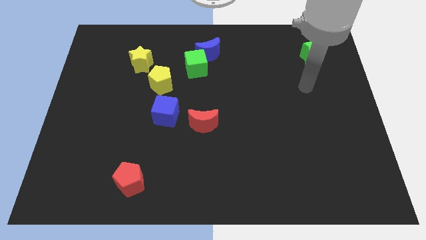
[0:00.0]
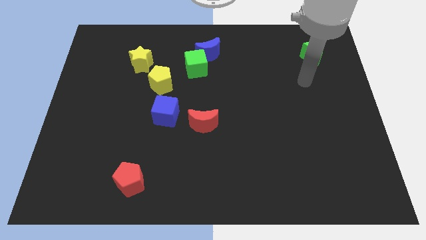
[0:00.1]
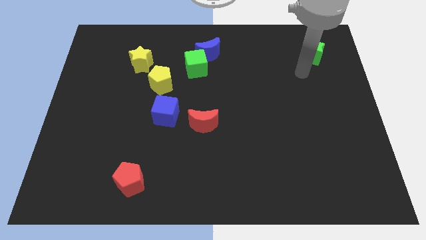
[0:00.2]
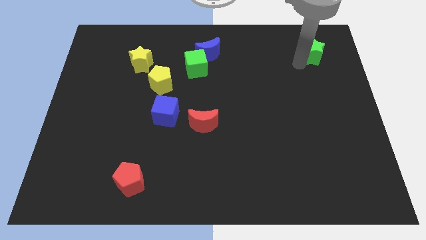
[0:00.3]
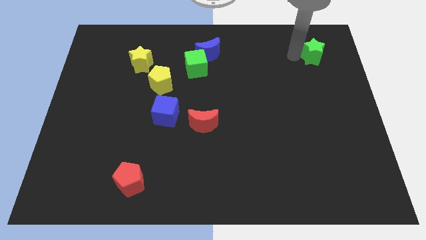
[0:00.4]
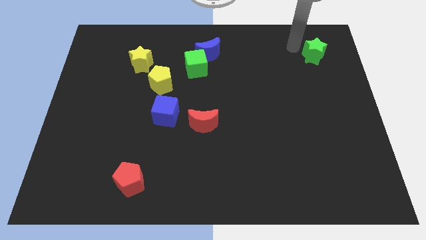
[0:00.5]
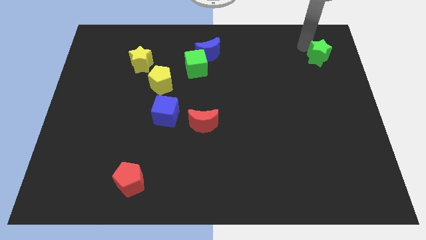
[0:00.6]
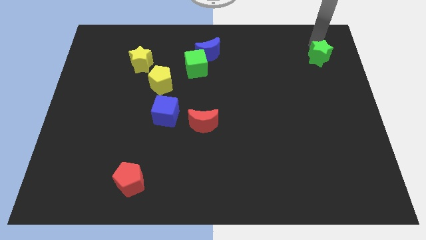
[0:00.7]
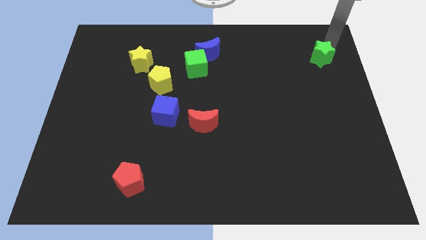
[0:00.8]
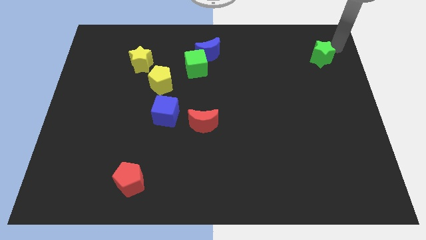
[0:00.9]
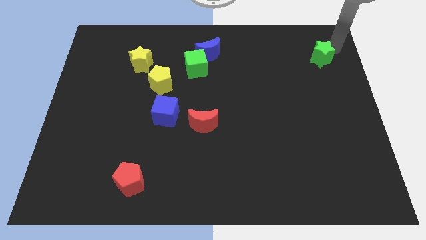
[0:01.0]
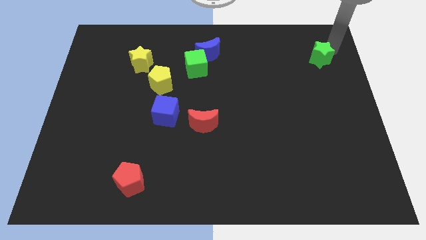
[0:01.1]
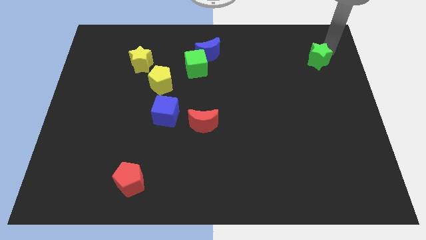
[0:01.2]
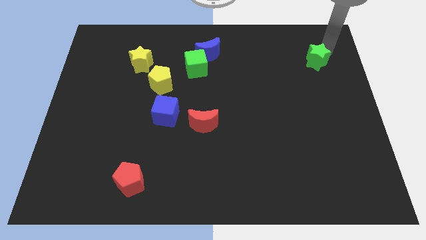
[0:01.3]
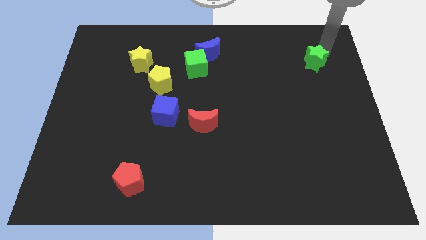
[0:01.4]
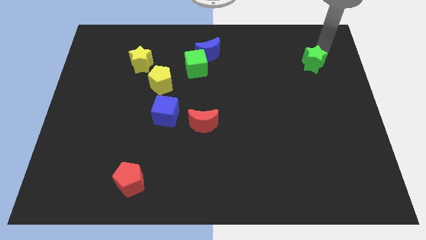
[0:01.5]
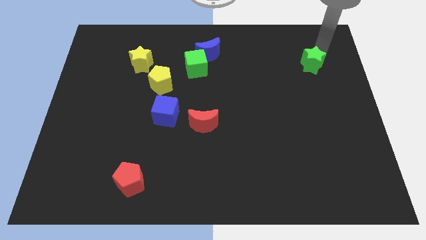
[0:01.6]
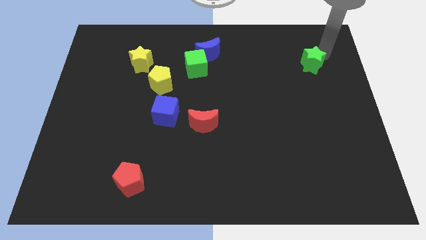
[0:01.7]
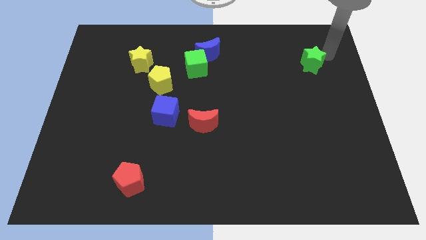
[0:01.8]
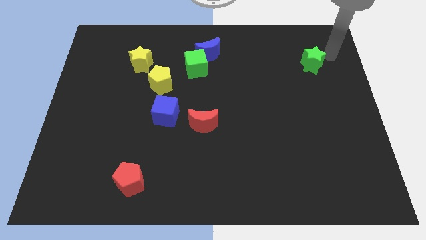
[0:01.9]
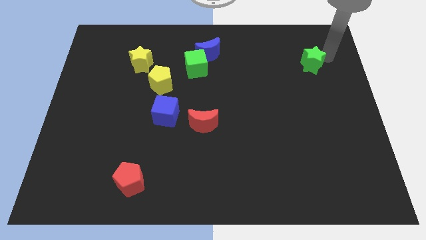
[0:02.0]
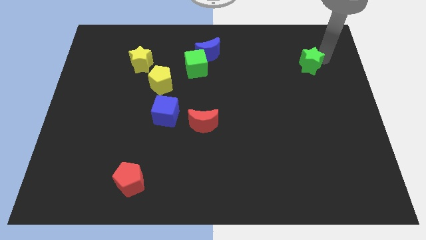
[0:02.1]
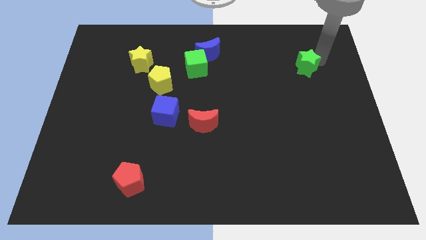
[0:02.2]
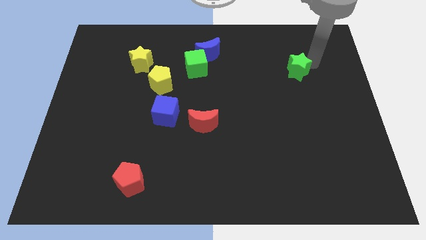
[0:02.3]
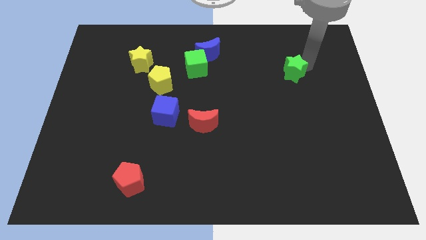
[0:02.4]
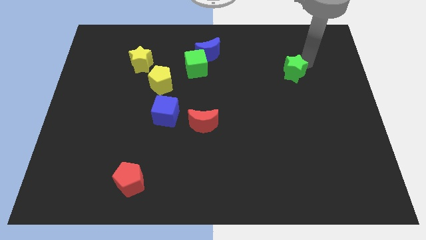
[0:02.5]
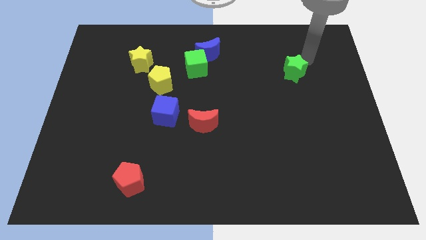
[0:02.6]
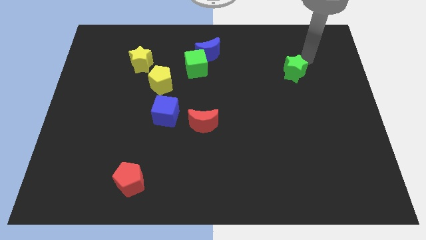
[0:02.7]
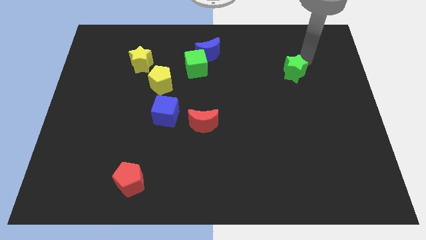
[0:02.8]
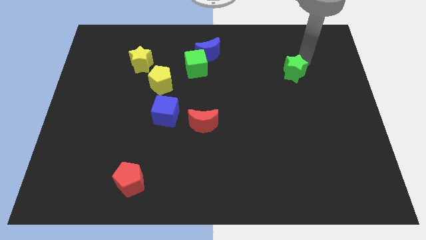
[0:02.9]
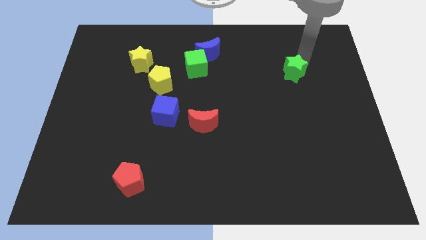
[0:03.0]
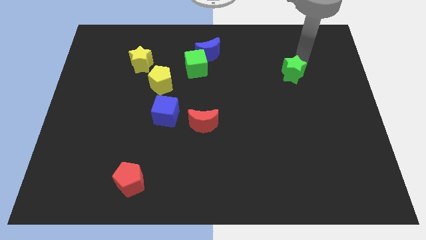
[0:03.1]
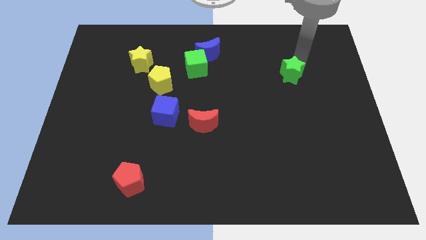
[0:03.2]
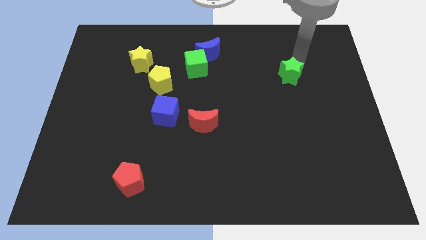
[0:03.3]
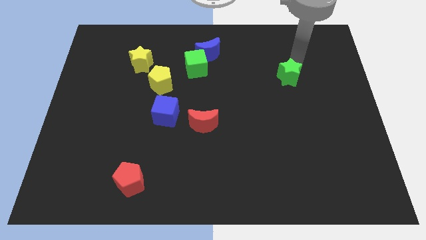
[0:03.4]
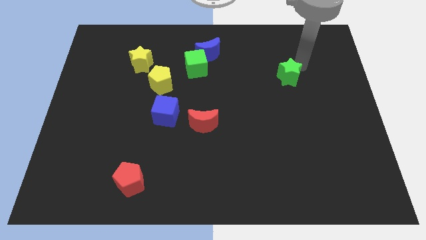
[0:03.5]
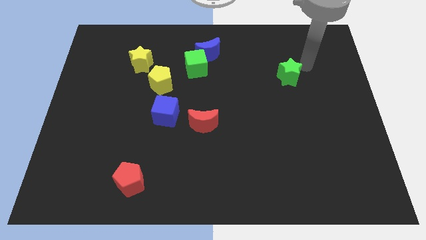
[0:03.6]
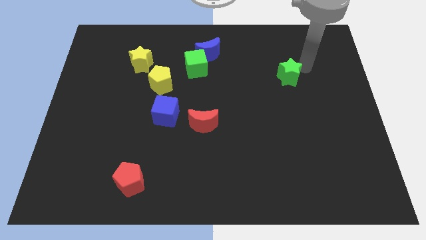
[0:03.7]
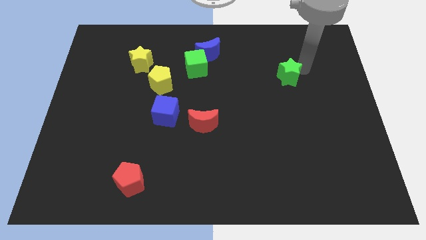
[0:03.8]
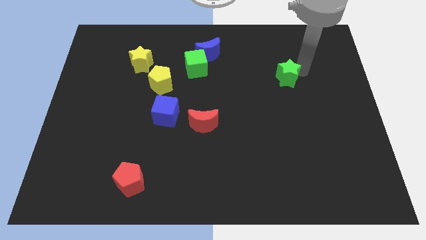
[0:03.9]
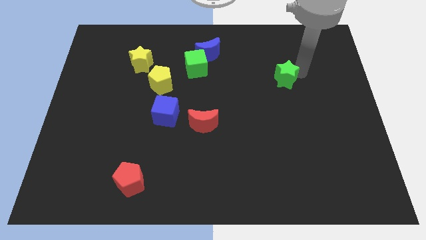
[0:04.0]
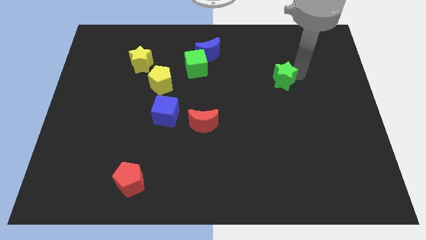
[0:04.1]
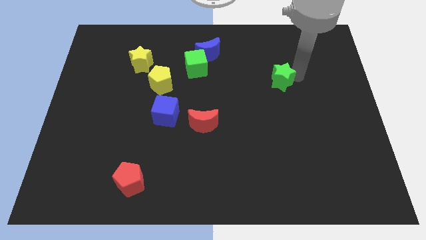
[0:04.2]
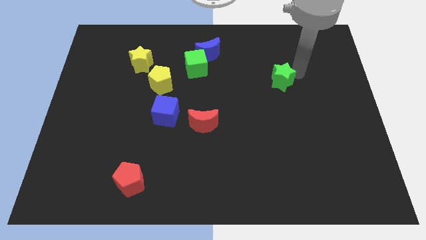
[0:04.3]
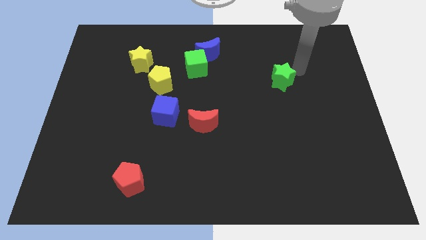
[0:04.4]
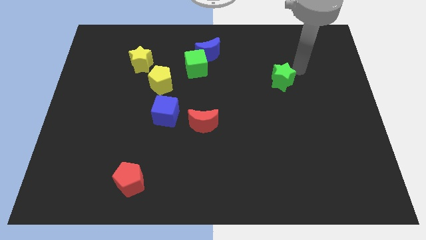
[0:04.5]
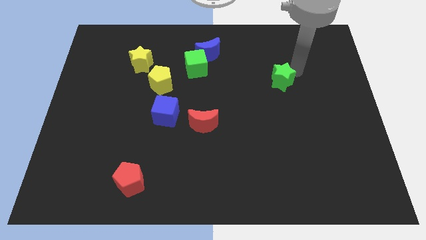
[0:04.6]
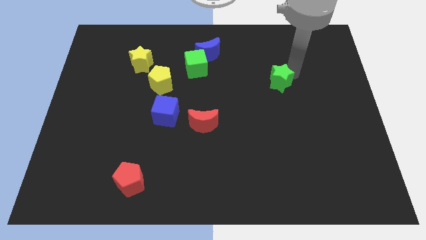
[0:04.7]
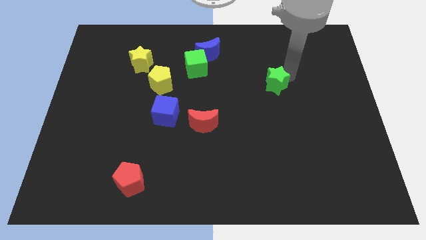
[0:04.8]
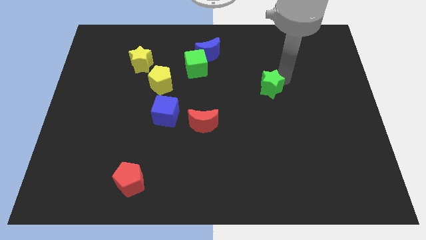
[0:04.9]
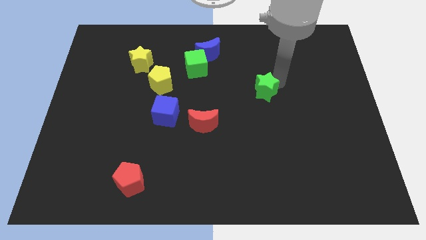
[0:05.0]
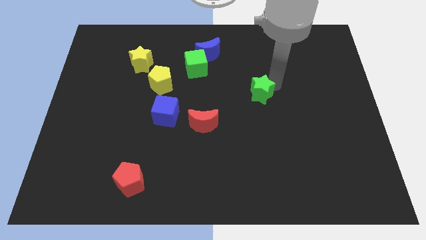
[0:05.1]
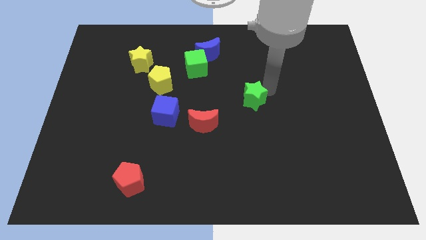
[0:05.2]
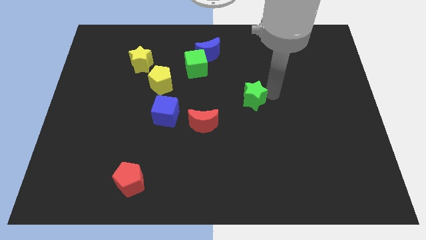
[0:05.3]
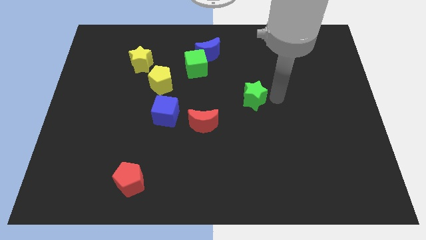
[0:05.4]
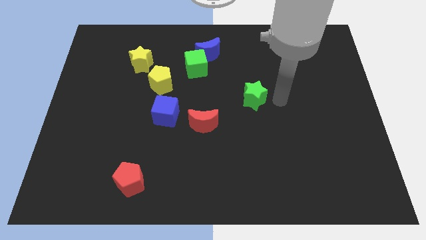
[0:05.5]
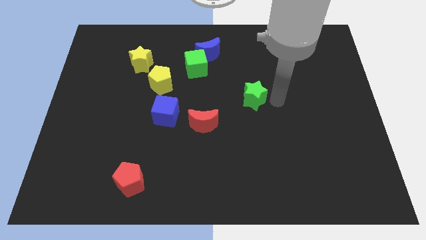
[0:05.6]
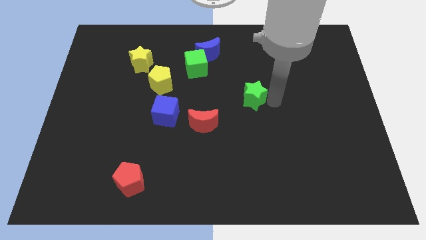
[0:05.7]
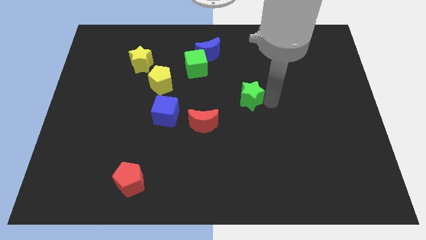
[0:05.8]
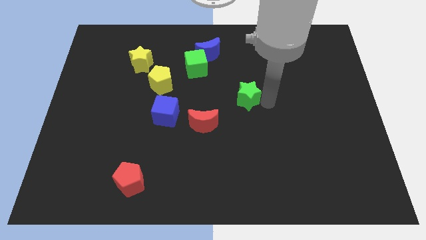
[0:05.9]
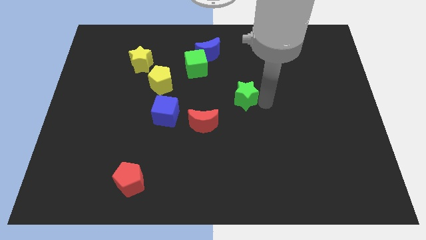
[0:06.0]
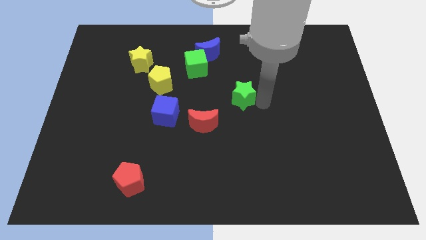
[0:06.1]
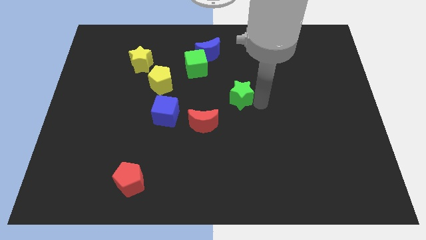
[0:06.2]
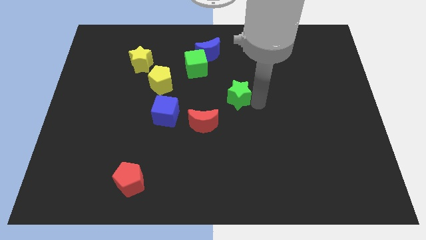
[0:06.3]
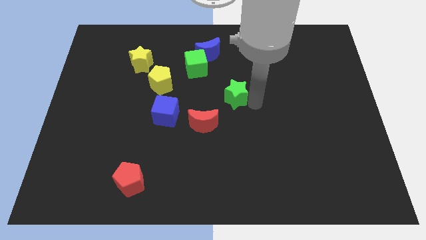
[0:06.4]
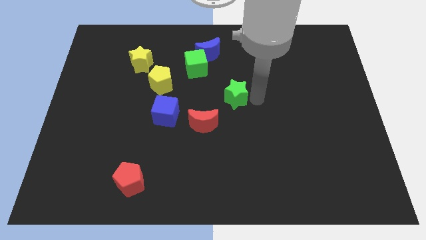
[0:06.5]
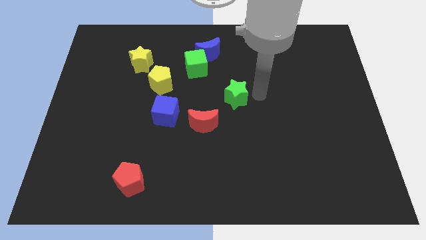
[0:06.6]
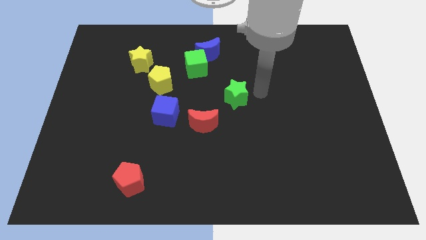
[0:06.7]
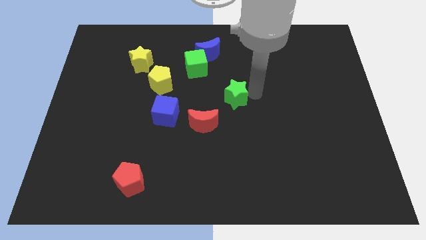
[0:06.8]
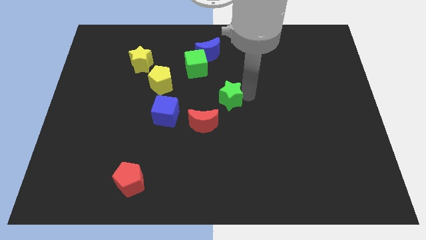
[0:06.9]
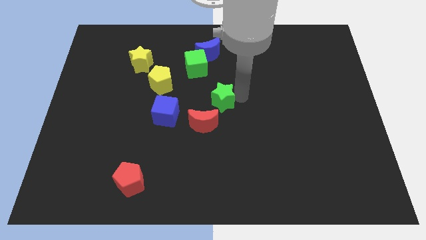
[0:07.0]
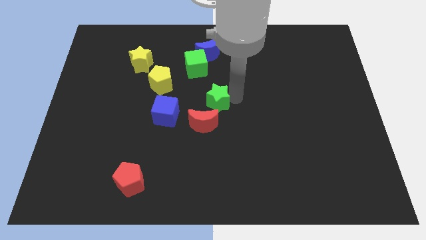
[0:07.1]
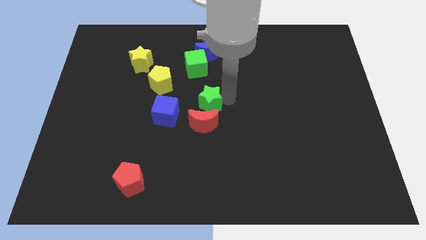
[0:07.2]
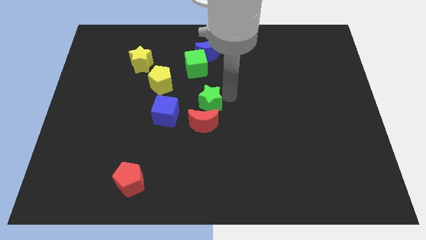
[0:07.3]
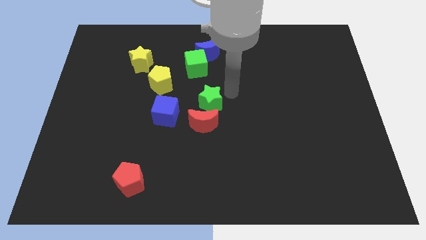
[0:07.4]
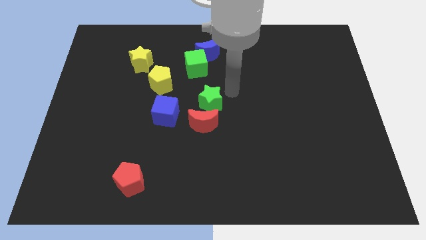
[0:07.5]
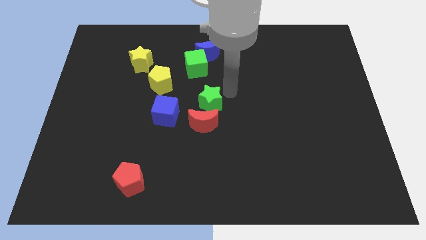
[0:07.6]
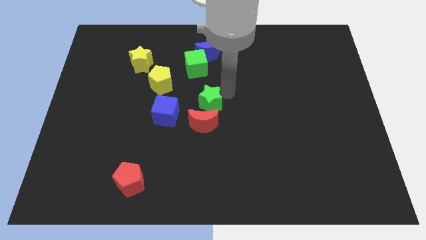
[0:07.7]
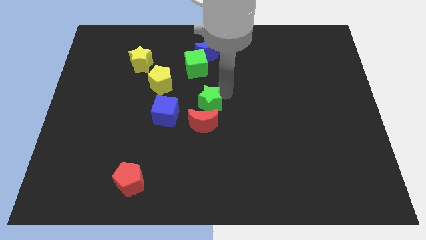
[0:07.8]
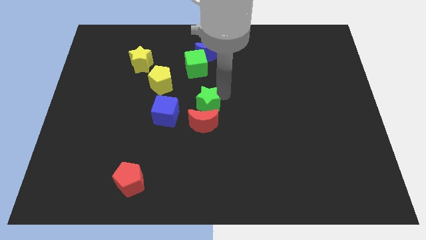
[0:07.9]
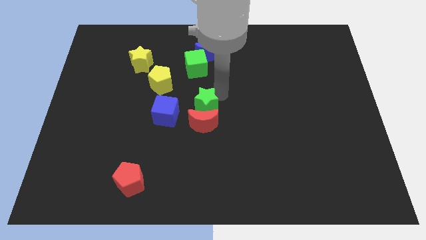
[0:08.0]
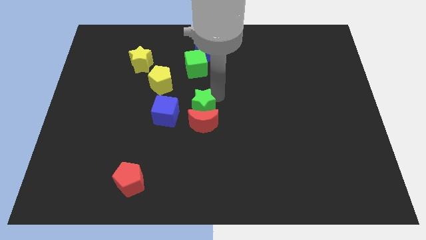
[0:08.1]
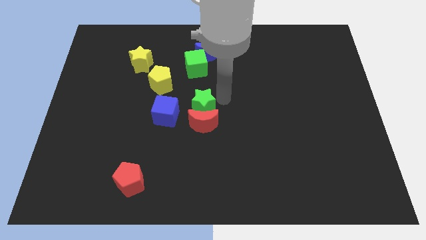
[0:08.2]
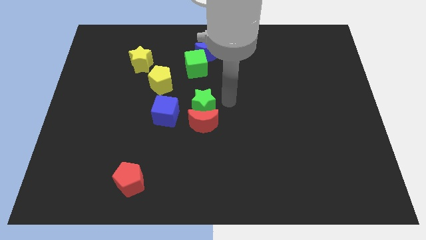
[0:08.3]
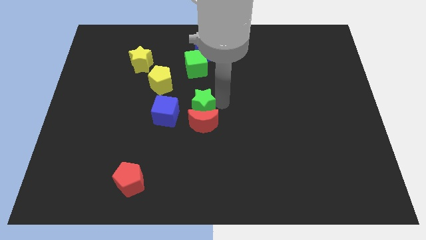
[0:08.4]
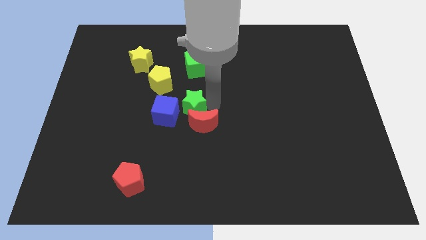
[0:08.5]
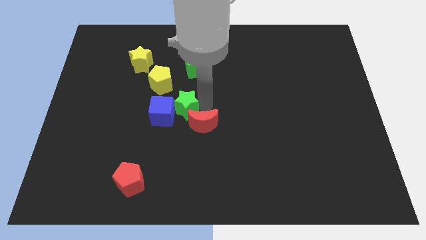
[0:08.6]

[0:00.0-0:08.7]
slide the green star to the blue cube
